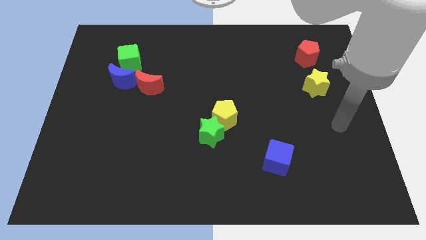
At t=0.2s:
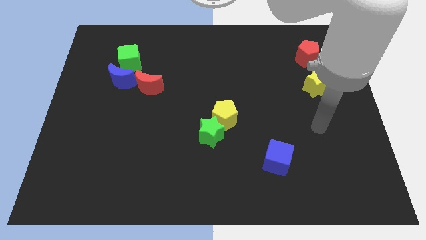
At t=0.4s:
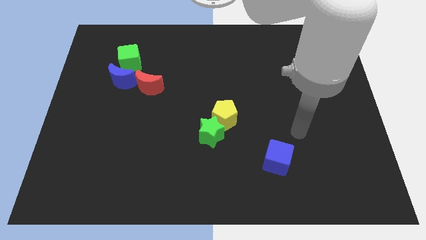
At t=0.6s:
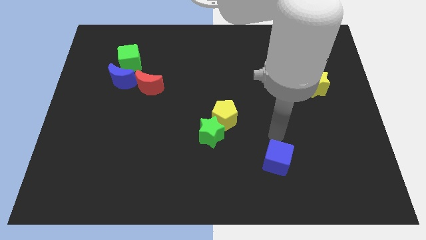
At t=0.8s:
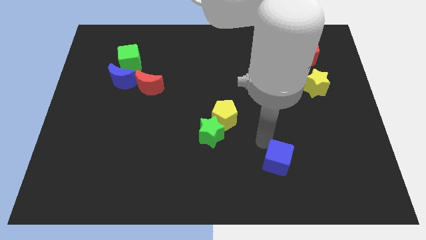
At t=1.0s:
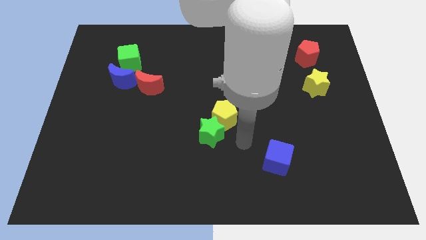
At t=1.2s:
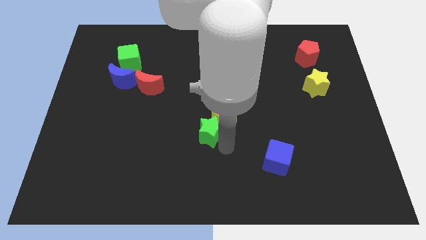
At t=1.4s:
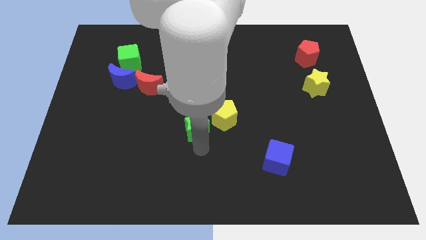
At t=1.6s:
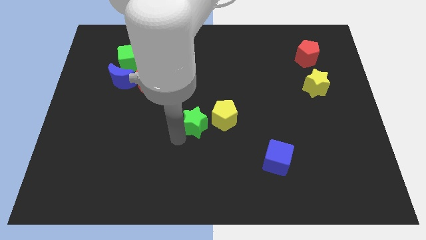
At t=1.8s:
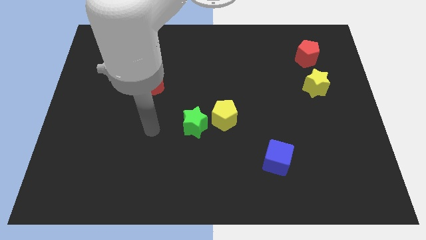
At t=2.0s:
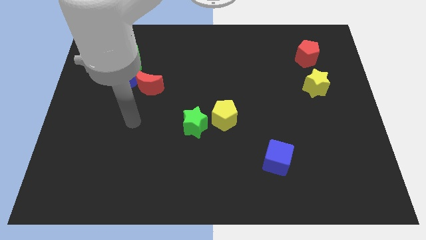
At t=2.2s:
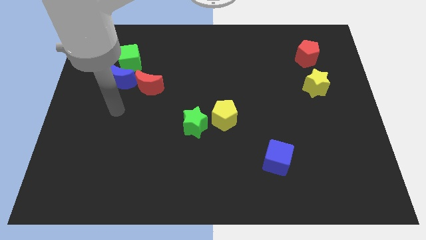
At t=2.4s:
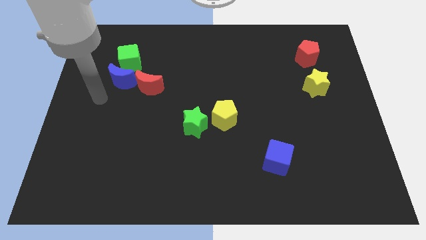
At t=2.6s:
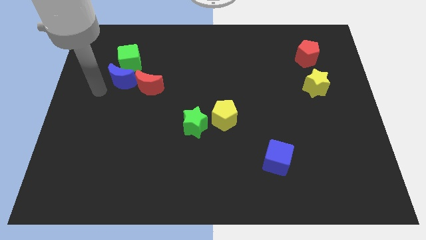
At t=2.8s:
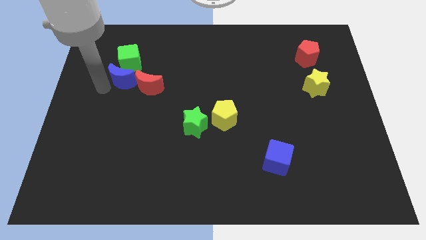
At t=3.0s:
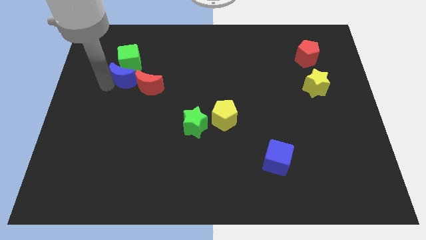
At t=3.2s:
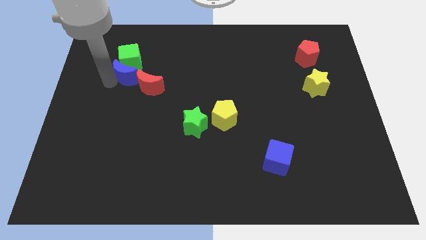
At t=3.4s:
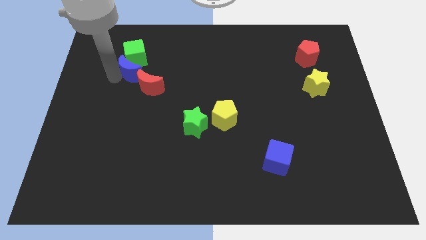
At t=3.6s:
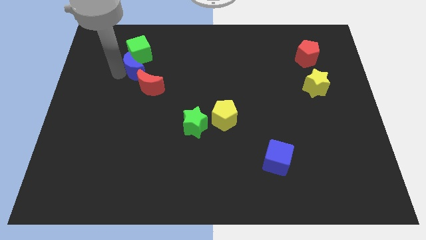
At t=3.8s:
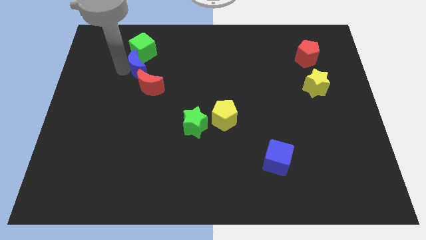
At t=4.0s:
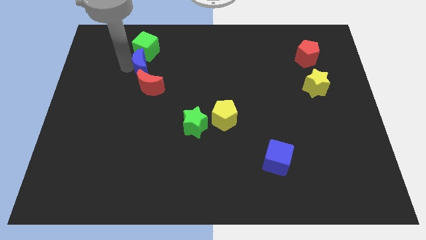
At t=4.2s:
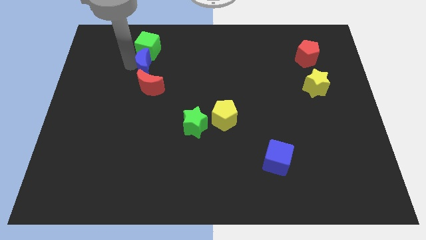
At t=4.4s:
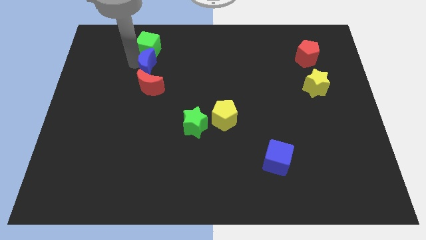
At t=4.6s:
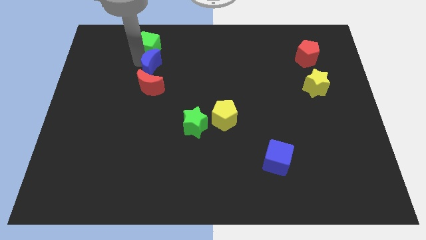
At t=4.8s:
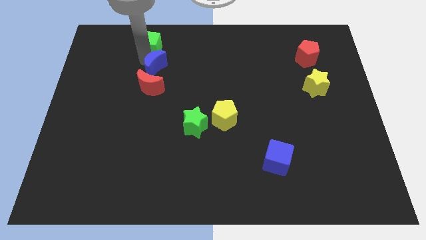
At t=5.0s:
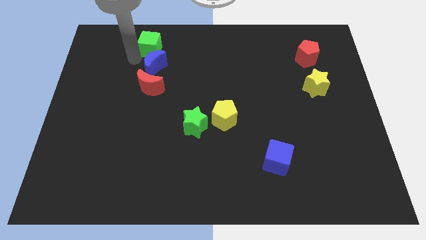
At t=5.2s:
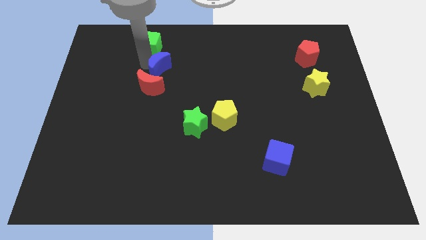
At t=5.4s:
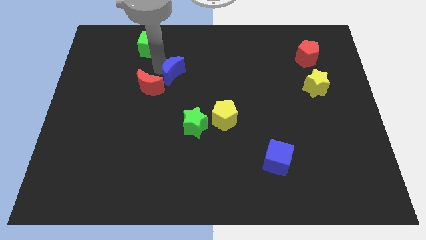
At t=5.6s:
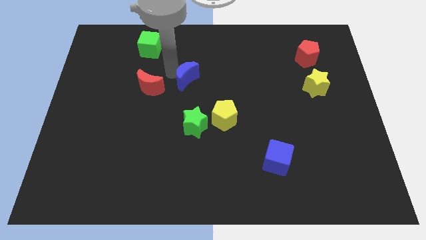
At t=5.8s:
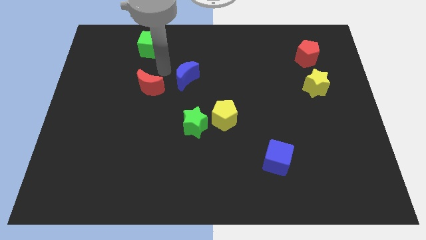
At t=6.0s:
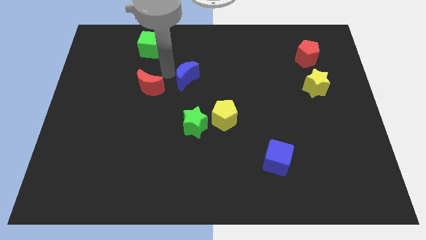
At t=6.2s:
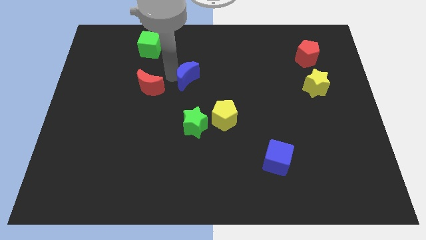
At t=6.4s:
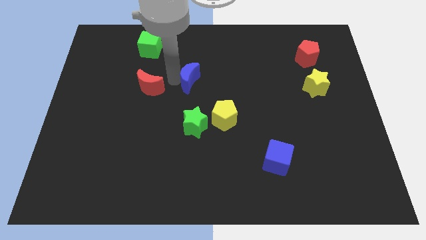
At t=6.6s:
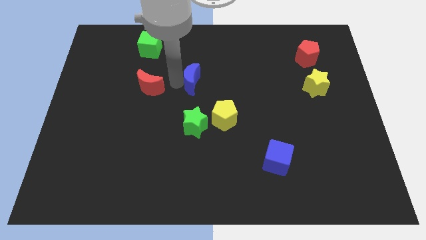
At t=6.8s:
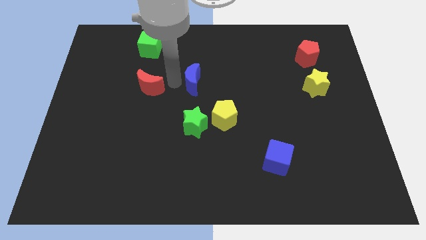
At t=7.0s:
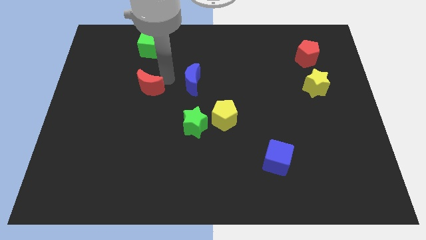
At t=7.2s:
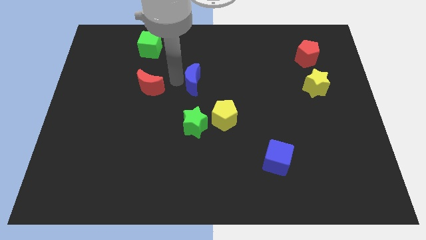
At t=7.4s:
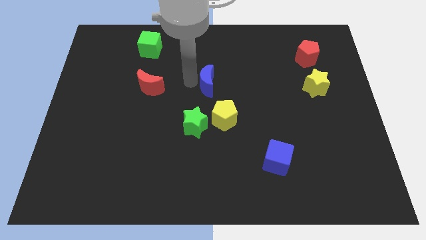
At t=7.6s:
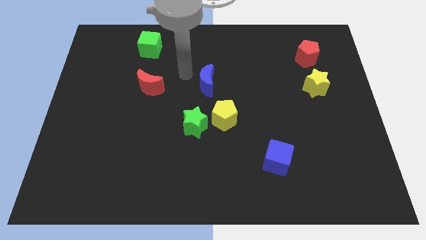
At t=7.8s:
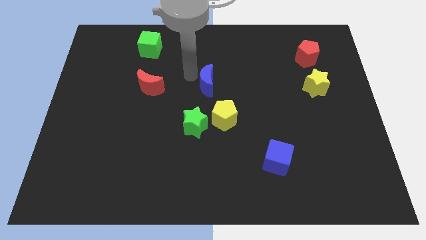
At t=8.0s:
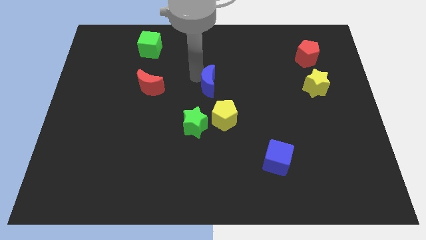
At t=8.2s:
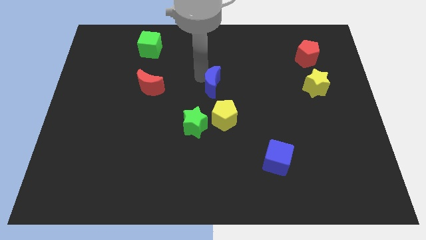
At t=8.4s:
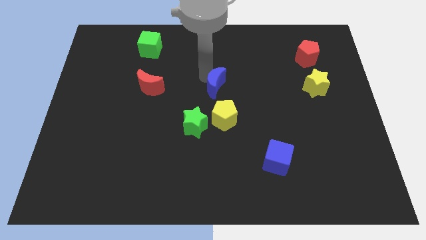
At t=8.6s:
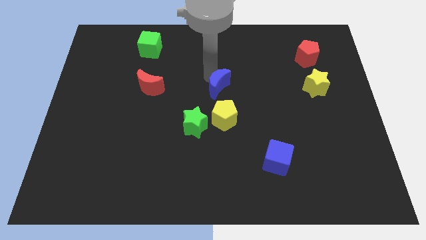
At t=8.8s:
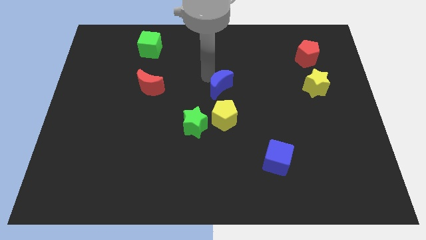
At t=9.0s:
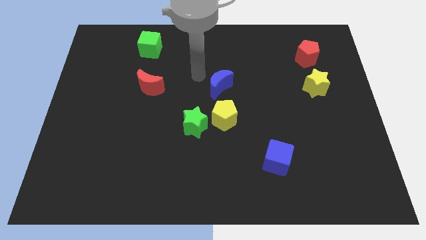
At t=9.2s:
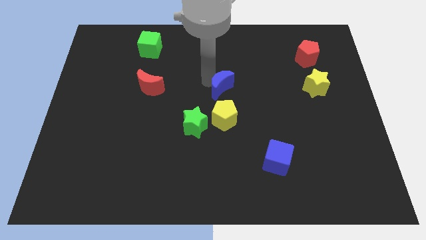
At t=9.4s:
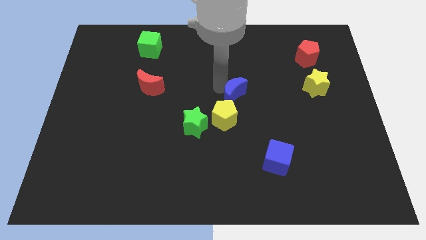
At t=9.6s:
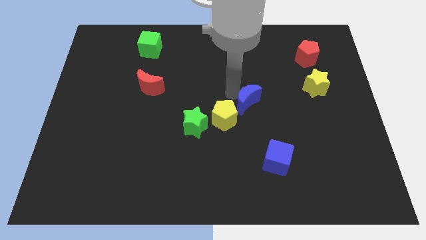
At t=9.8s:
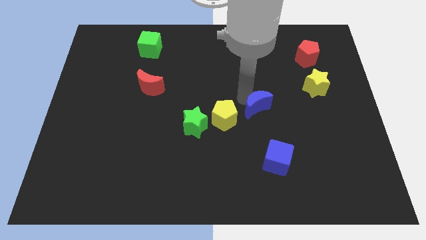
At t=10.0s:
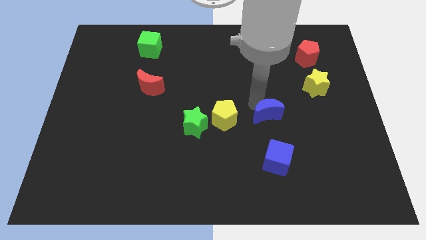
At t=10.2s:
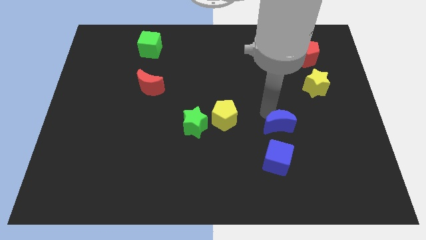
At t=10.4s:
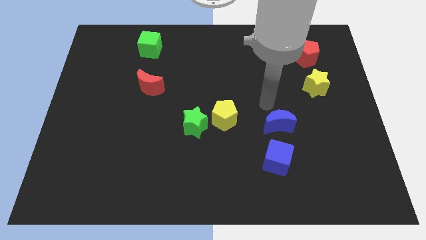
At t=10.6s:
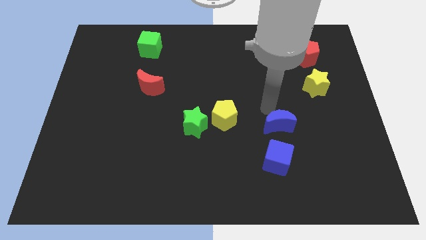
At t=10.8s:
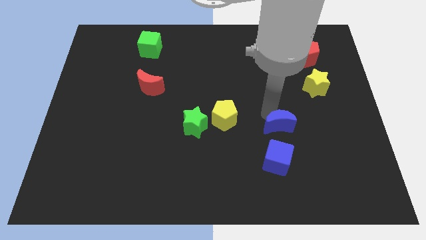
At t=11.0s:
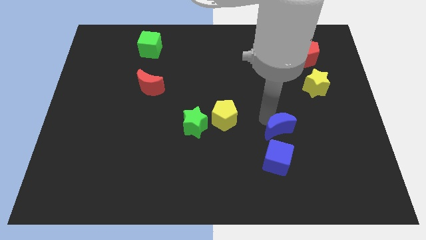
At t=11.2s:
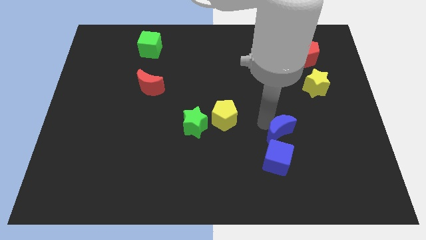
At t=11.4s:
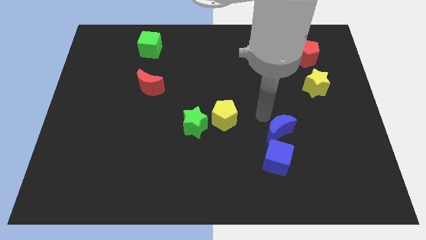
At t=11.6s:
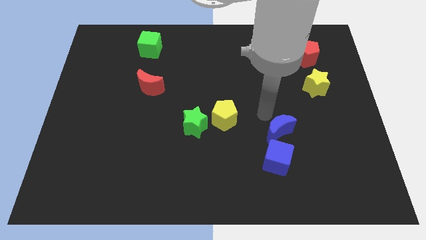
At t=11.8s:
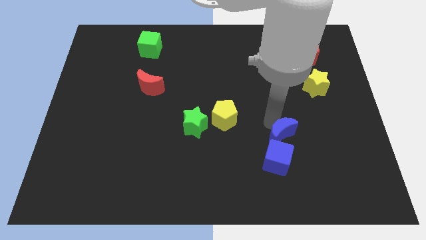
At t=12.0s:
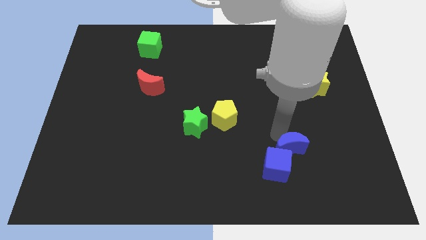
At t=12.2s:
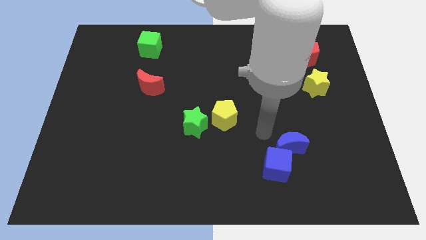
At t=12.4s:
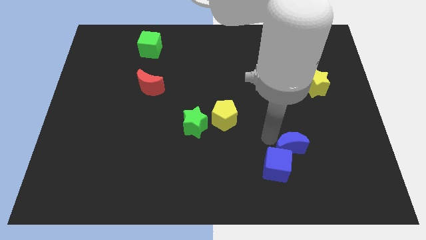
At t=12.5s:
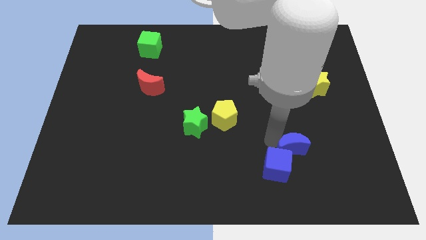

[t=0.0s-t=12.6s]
push the blue moon right of the blue cube
